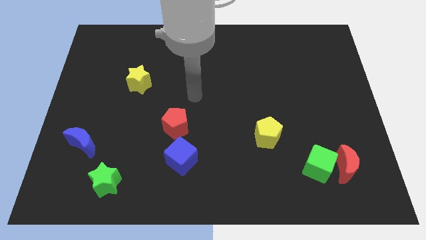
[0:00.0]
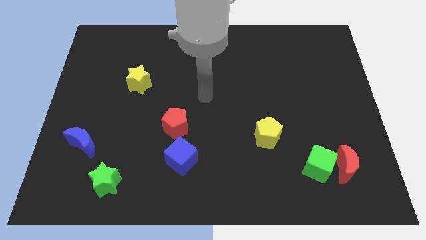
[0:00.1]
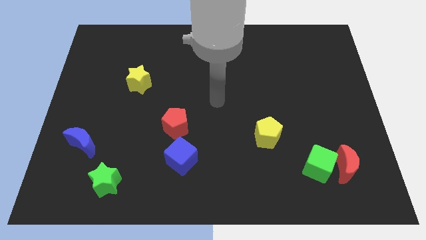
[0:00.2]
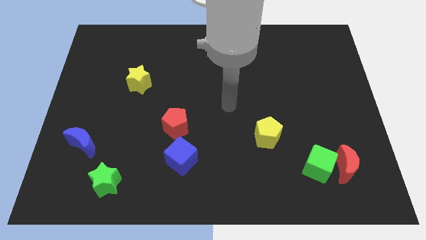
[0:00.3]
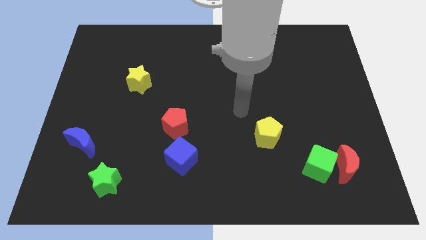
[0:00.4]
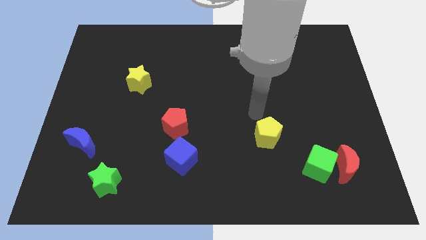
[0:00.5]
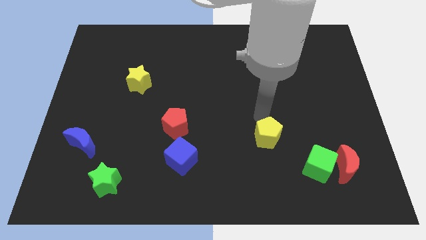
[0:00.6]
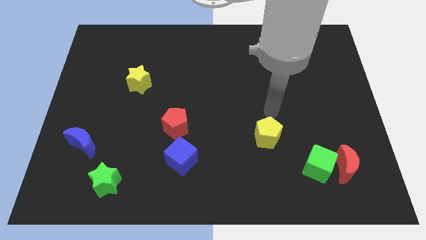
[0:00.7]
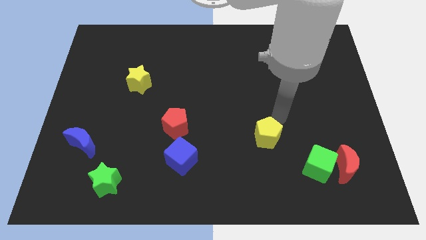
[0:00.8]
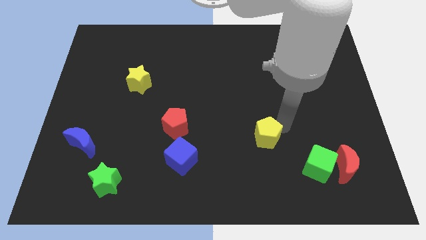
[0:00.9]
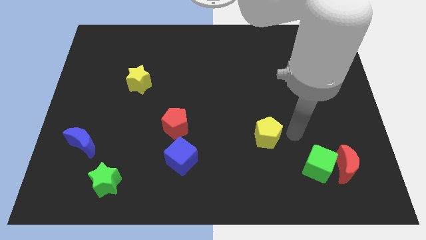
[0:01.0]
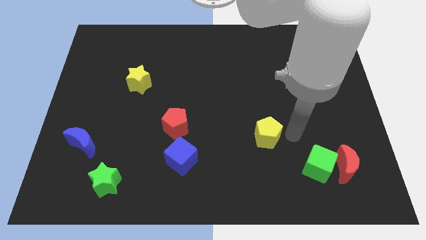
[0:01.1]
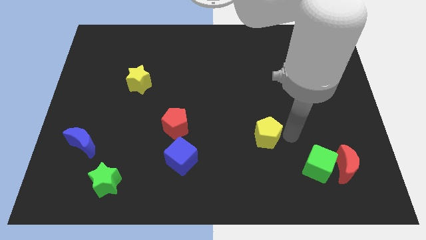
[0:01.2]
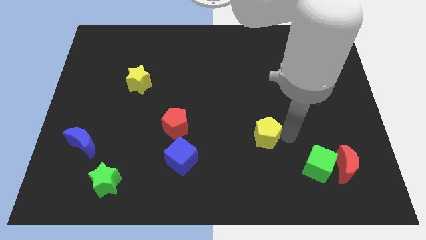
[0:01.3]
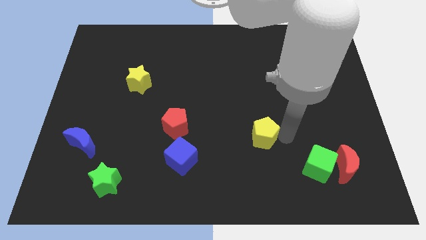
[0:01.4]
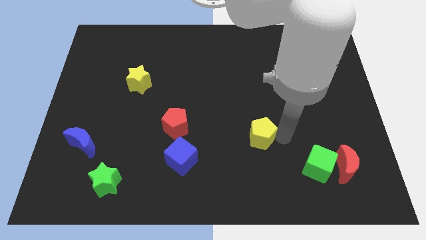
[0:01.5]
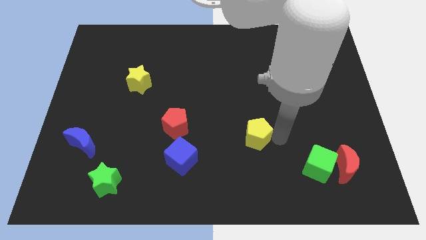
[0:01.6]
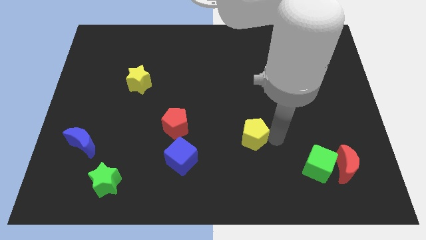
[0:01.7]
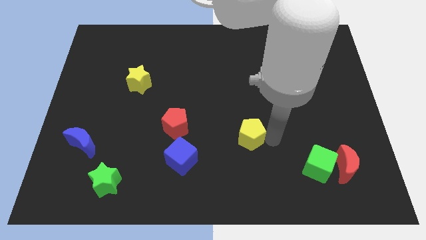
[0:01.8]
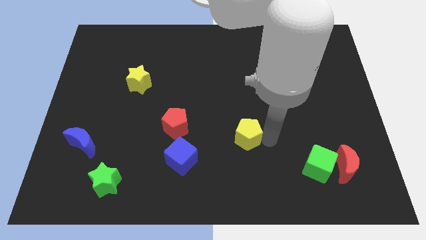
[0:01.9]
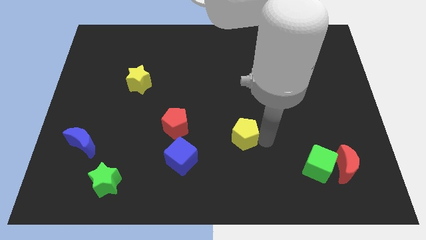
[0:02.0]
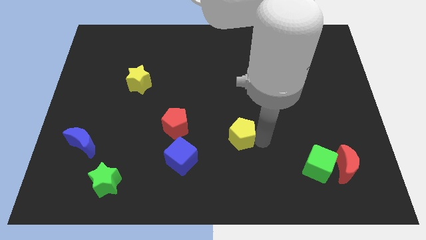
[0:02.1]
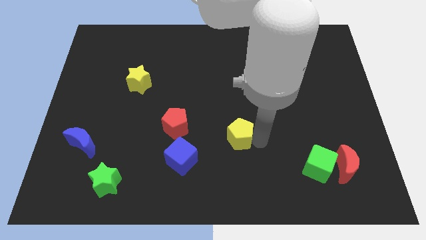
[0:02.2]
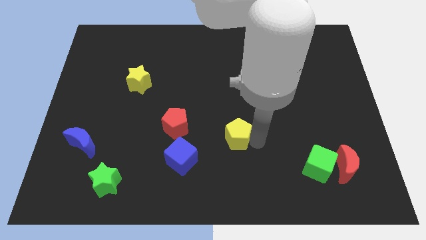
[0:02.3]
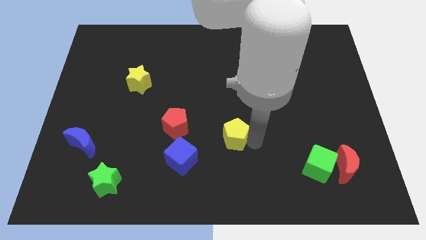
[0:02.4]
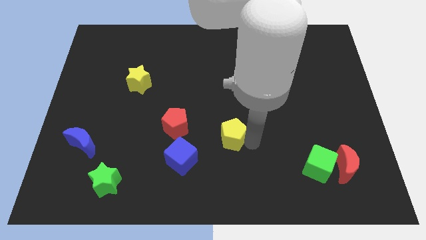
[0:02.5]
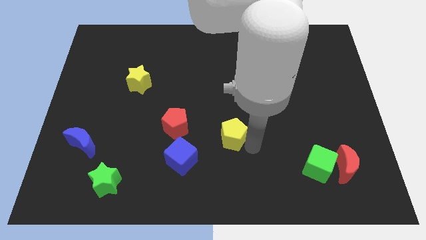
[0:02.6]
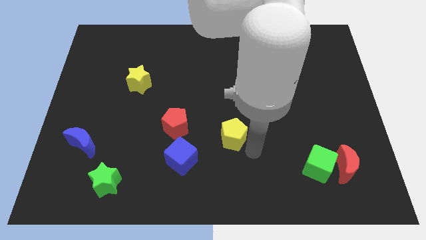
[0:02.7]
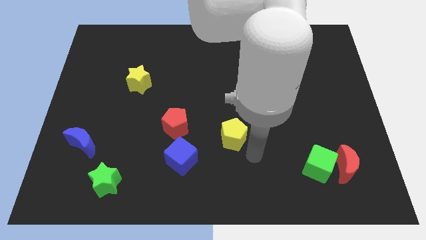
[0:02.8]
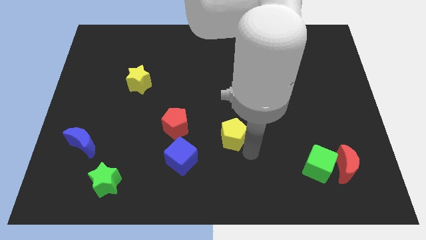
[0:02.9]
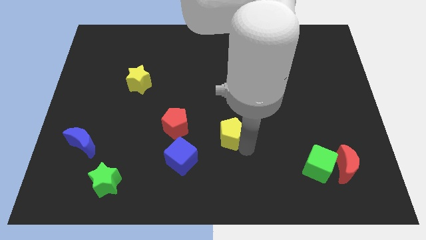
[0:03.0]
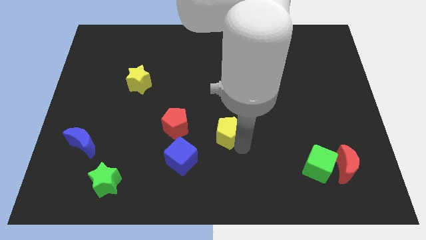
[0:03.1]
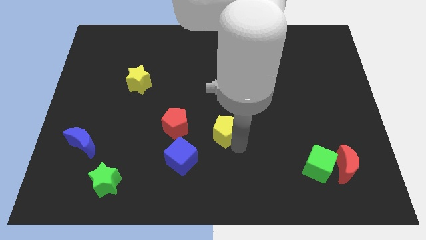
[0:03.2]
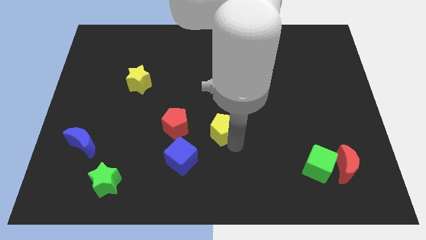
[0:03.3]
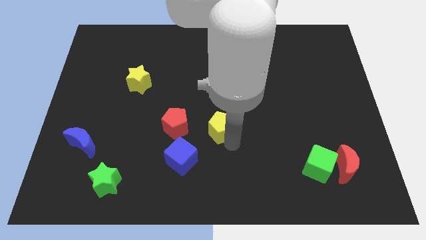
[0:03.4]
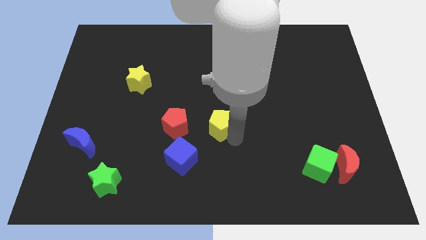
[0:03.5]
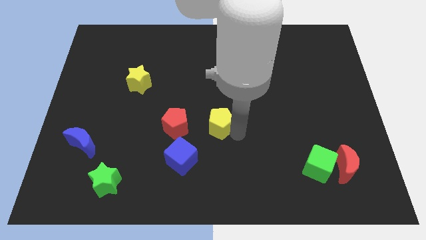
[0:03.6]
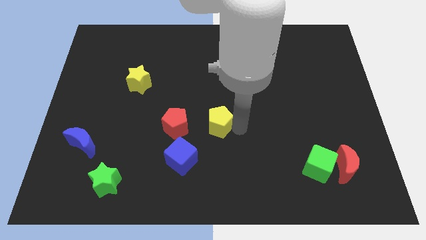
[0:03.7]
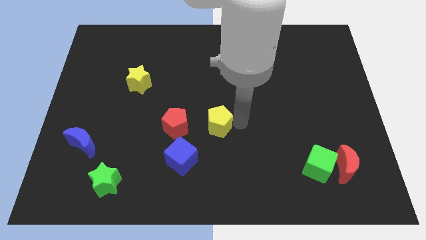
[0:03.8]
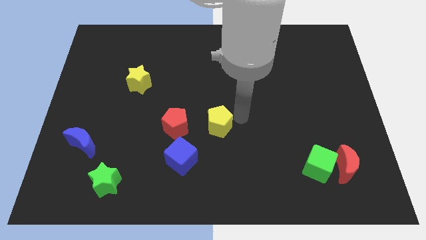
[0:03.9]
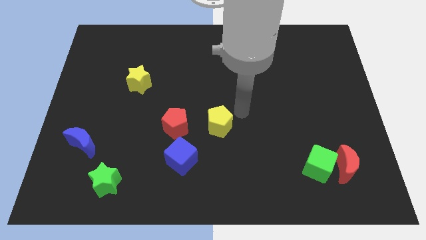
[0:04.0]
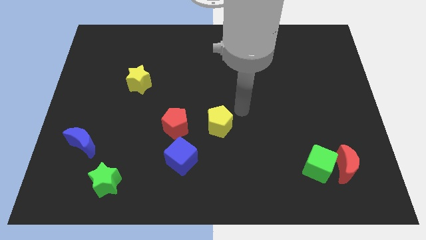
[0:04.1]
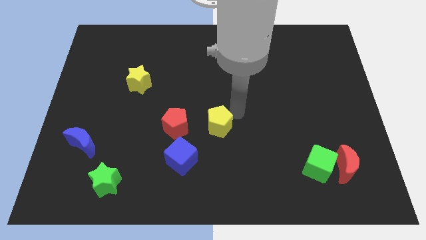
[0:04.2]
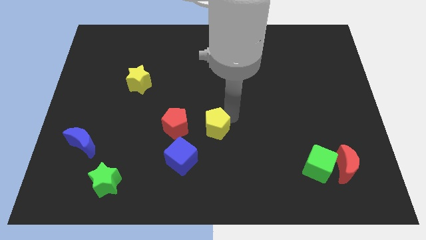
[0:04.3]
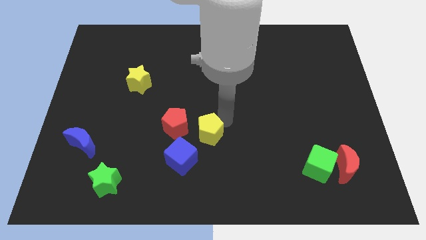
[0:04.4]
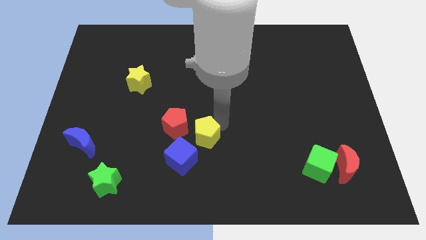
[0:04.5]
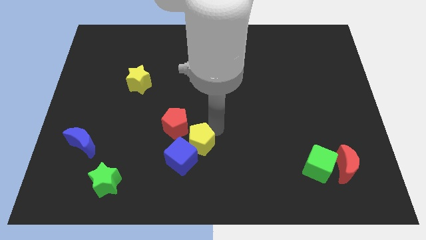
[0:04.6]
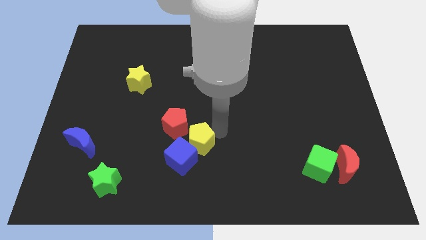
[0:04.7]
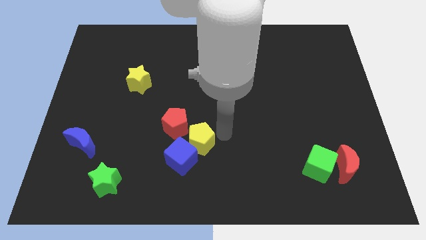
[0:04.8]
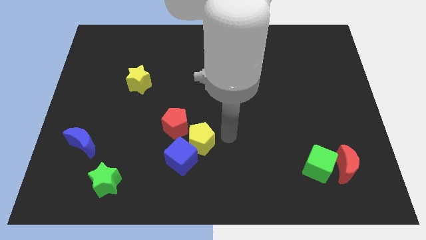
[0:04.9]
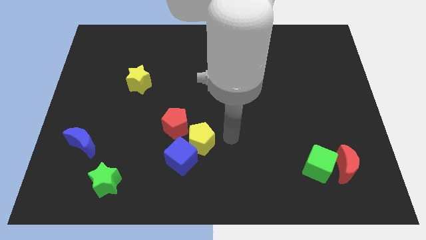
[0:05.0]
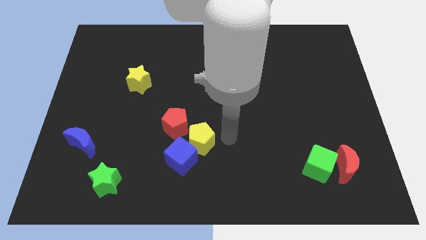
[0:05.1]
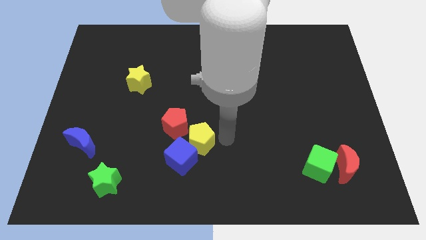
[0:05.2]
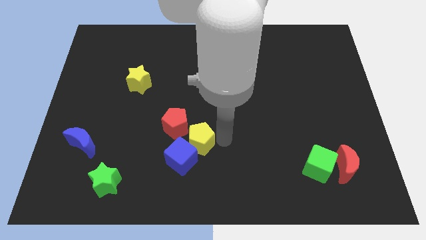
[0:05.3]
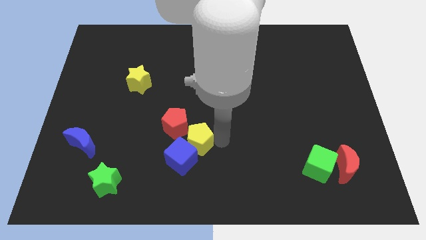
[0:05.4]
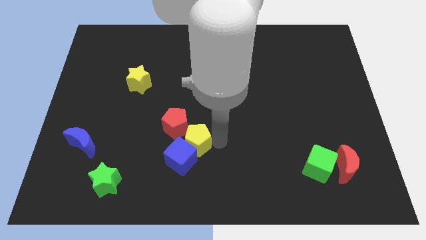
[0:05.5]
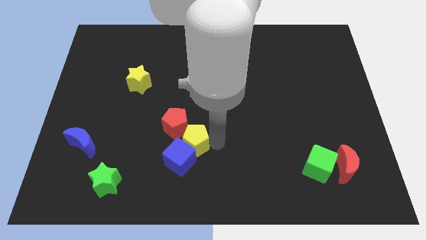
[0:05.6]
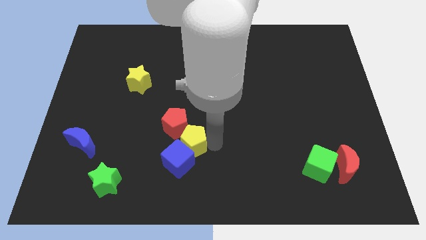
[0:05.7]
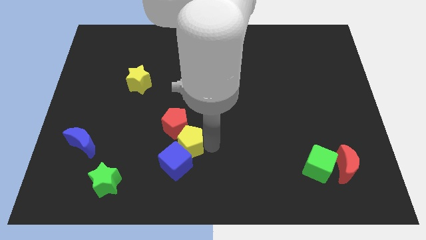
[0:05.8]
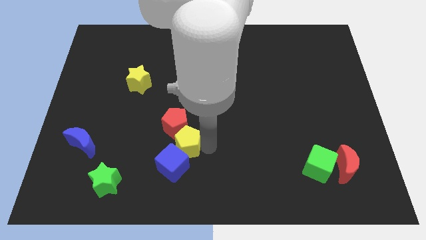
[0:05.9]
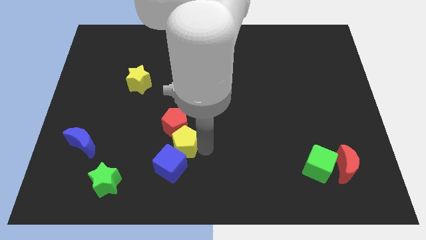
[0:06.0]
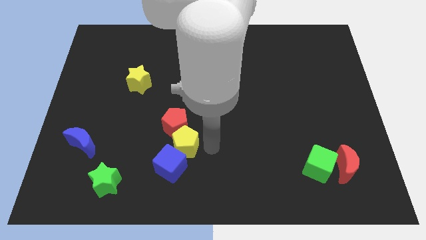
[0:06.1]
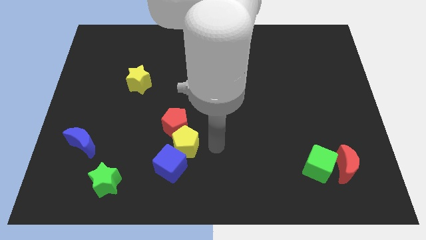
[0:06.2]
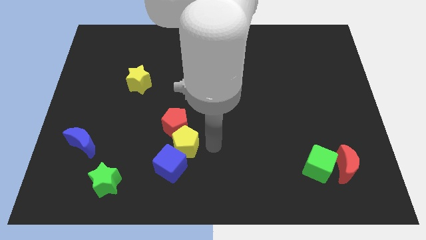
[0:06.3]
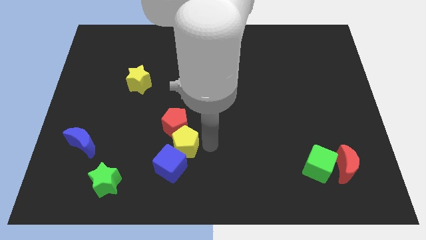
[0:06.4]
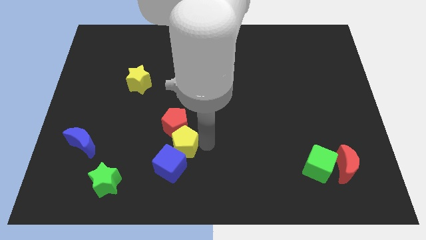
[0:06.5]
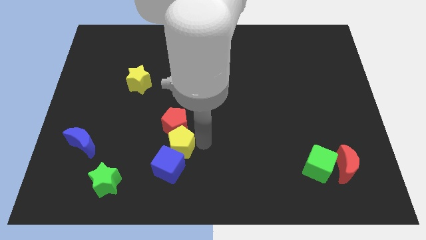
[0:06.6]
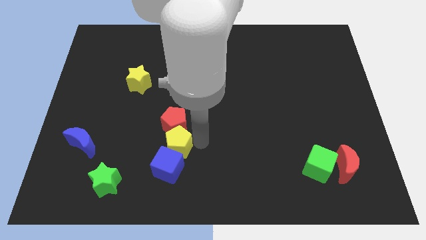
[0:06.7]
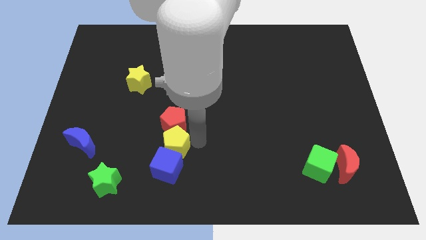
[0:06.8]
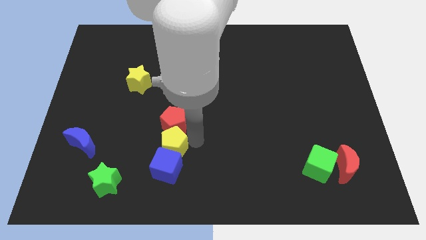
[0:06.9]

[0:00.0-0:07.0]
slide the yellow pentagon to the left

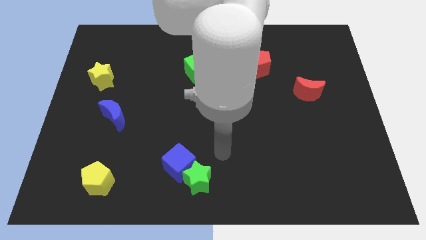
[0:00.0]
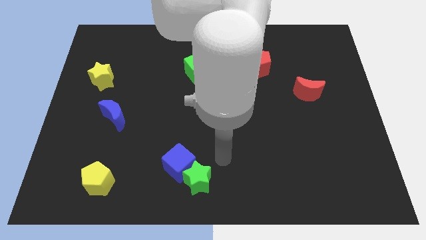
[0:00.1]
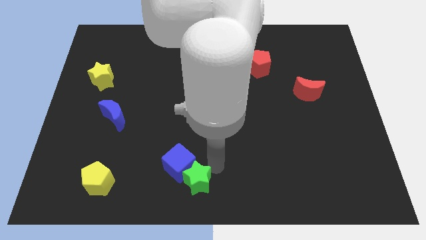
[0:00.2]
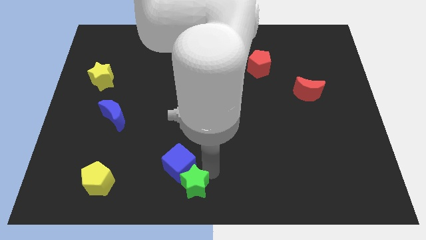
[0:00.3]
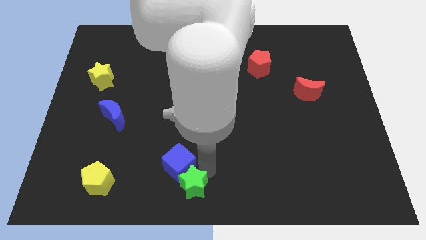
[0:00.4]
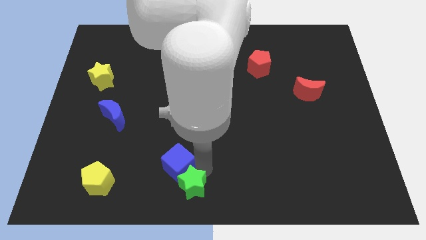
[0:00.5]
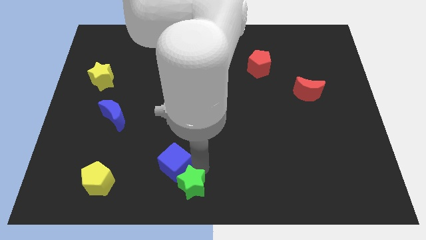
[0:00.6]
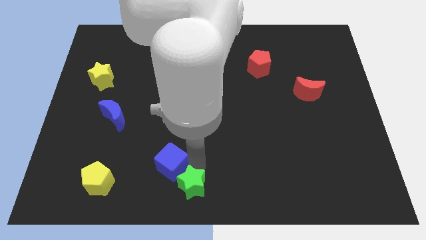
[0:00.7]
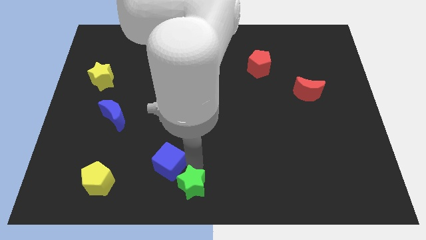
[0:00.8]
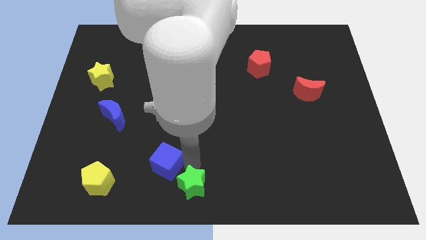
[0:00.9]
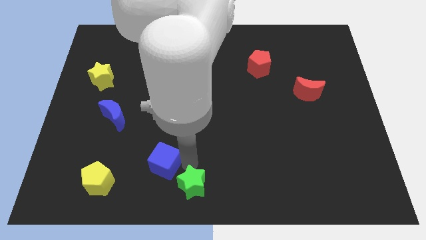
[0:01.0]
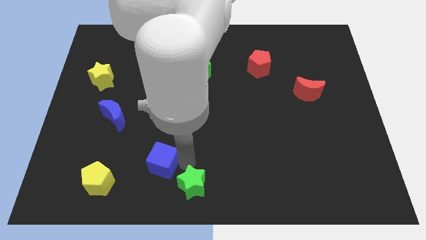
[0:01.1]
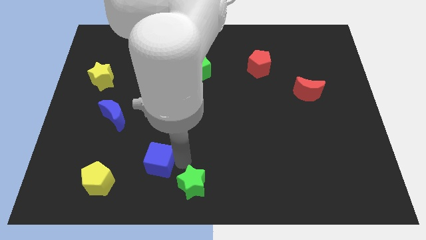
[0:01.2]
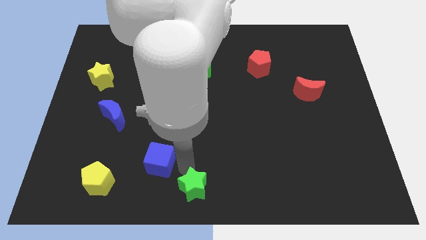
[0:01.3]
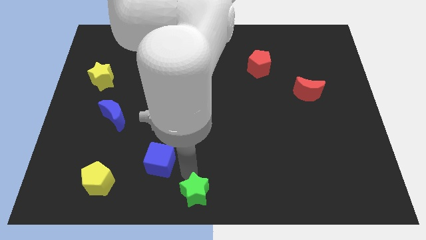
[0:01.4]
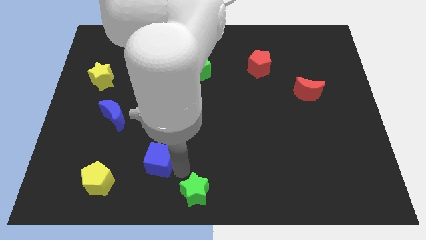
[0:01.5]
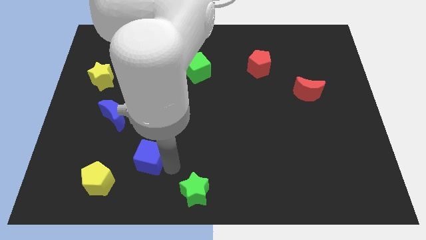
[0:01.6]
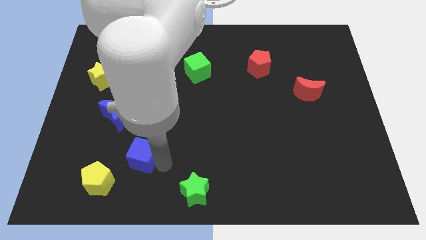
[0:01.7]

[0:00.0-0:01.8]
push the blue cube left a little bit
